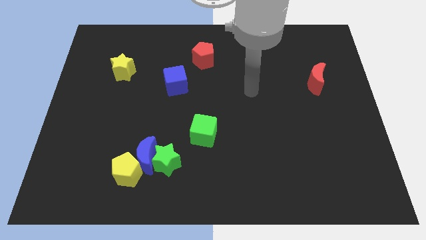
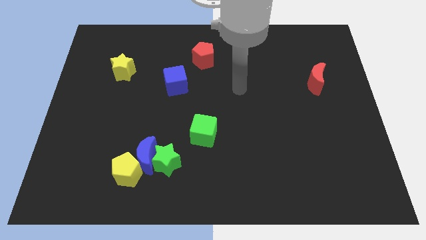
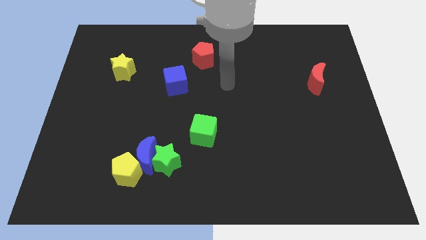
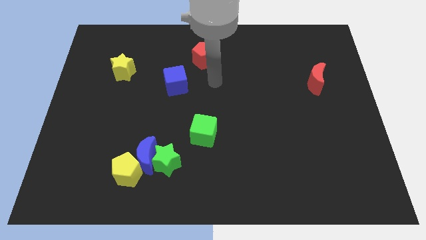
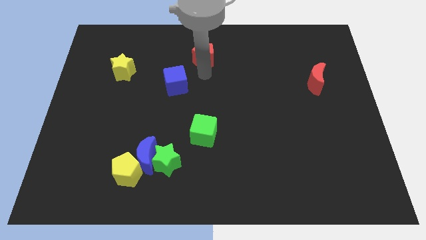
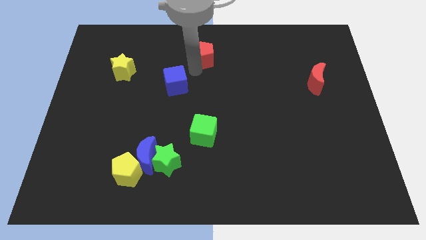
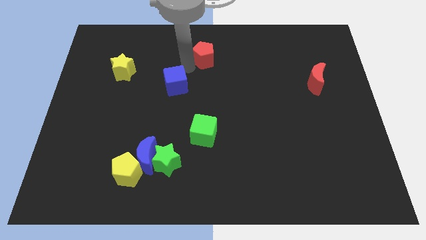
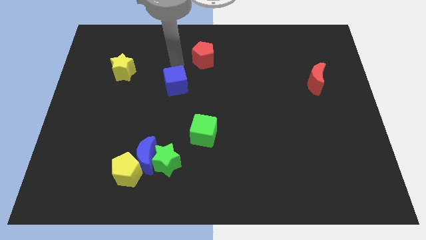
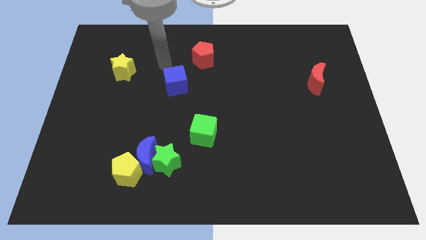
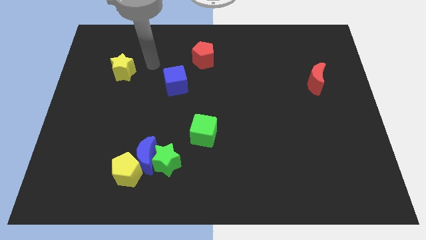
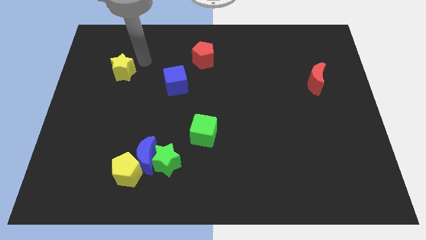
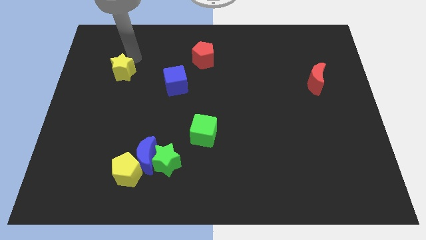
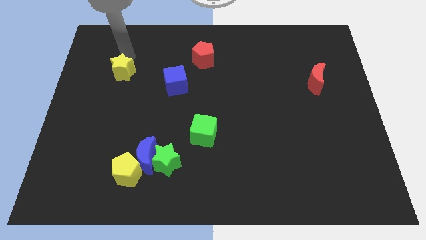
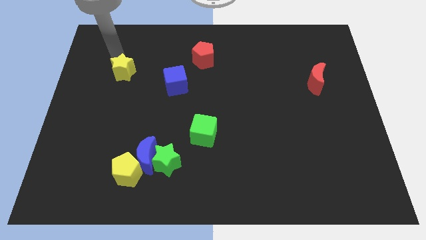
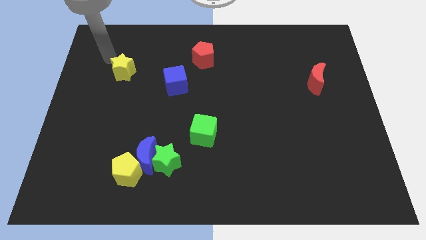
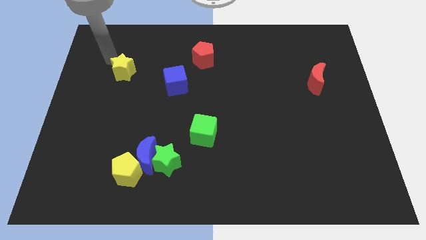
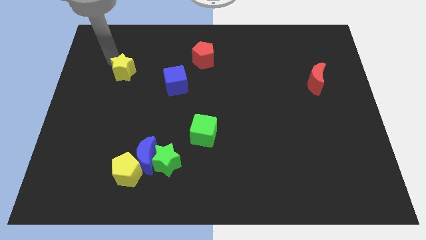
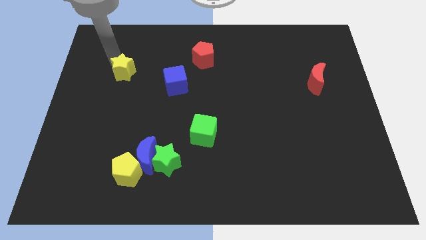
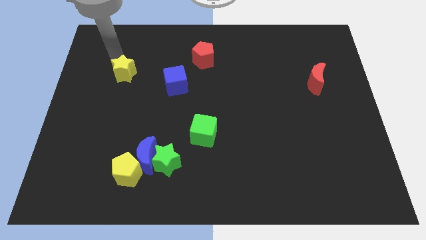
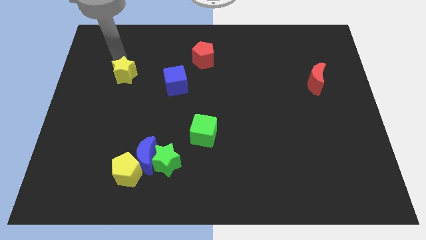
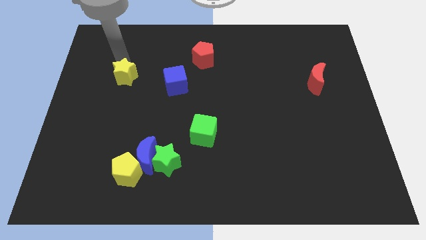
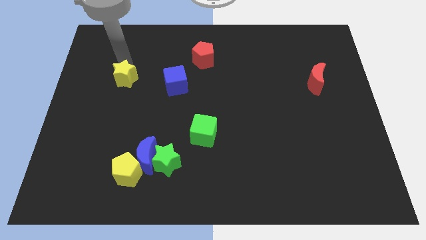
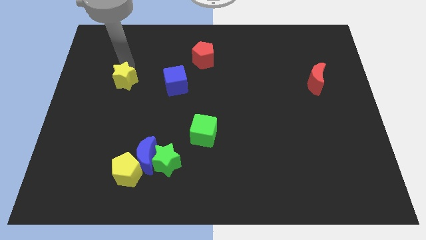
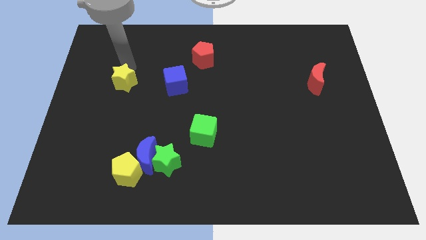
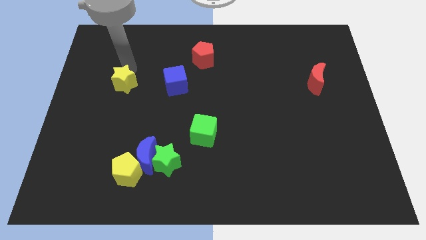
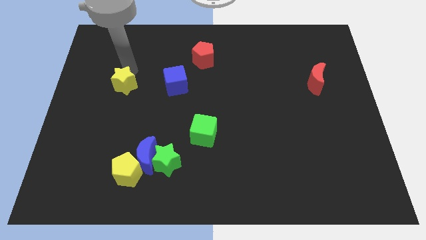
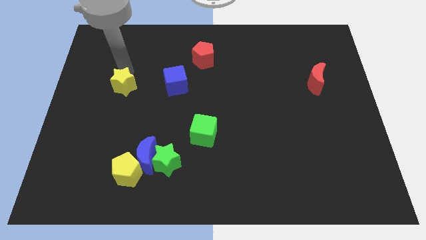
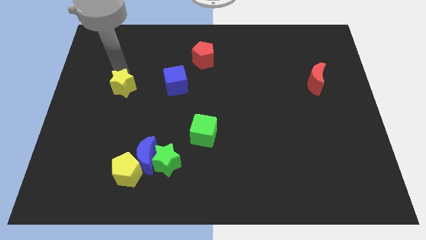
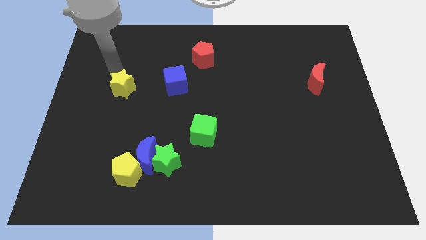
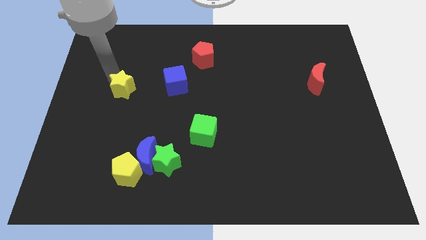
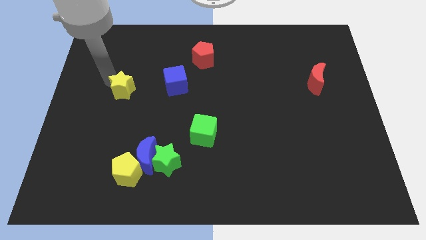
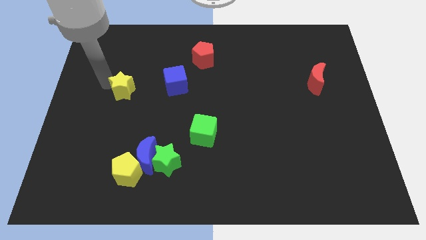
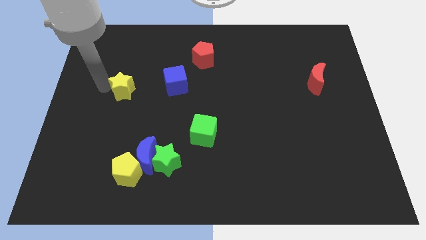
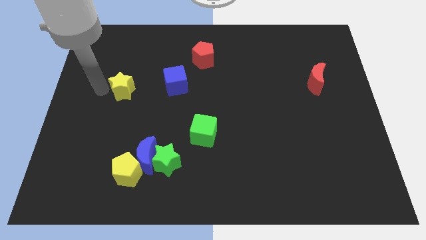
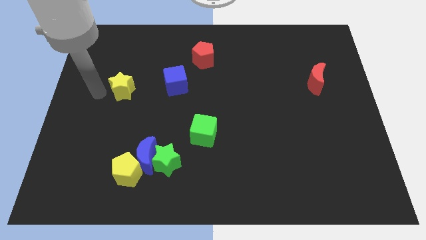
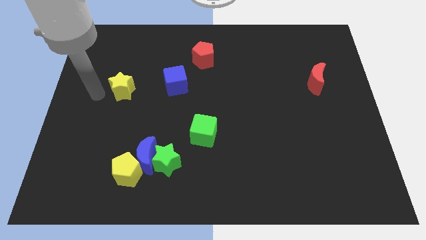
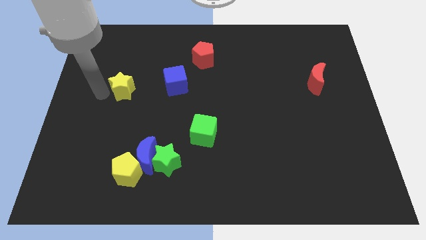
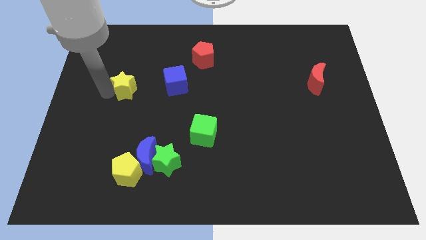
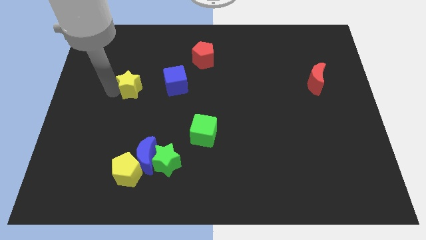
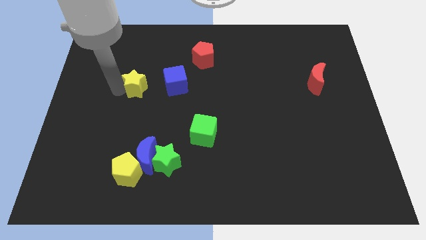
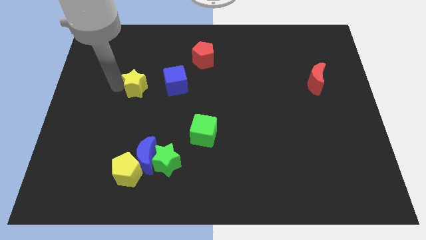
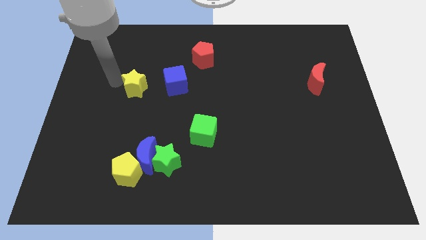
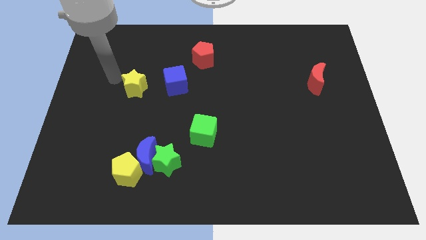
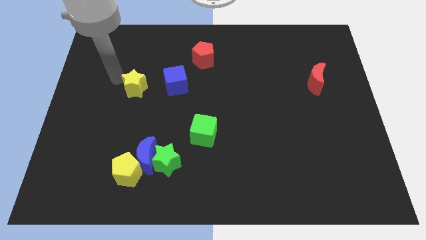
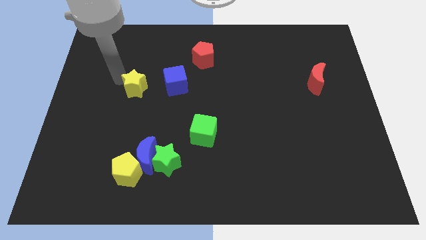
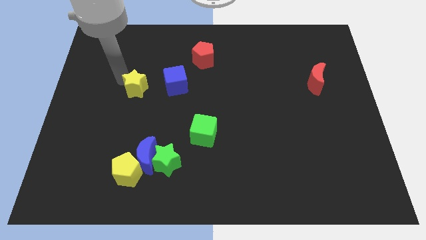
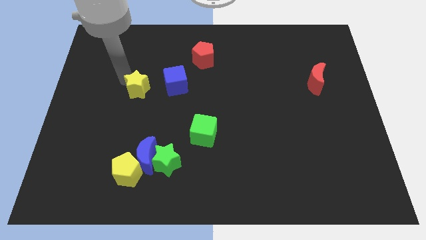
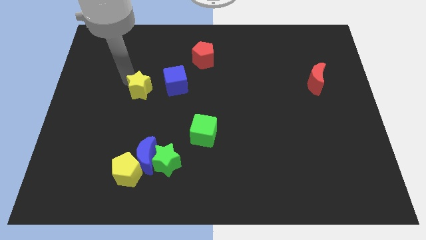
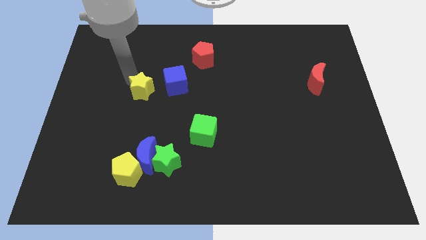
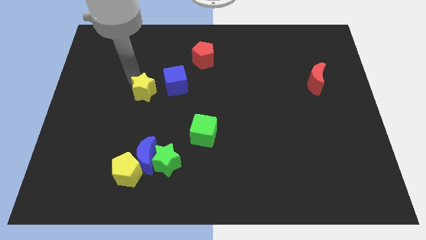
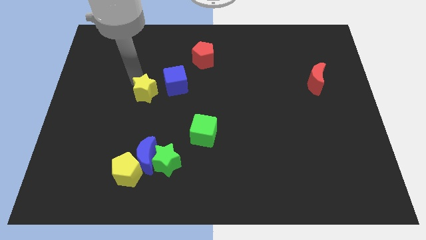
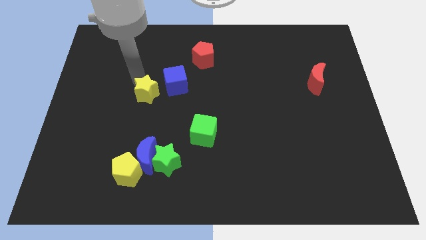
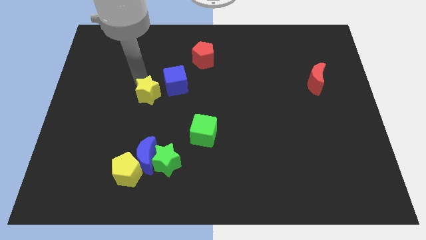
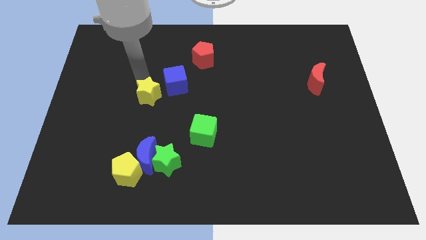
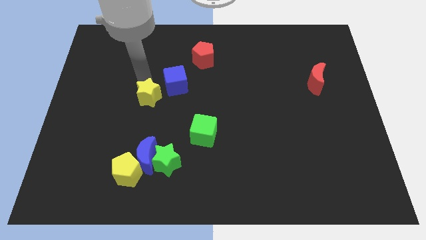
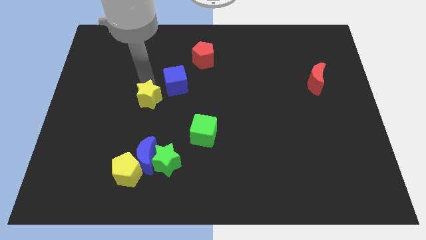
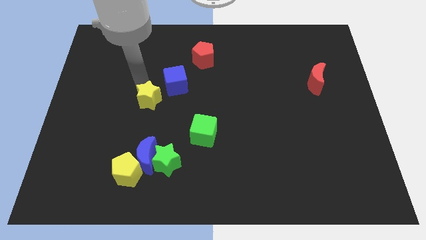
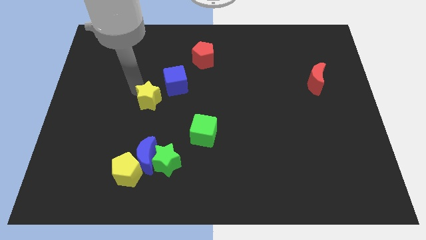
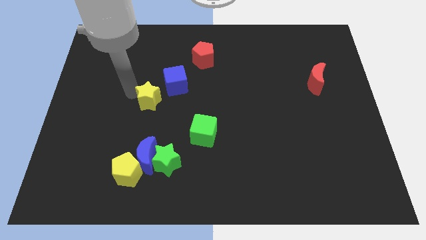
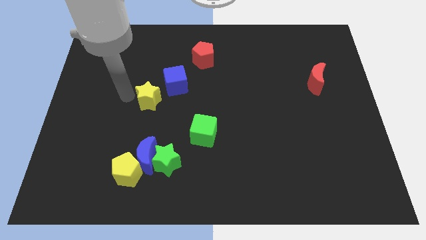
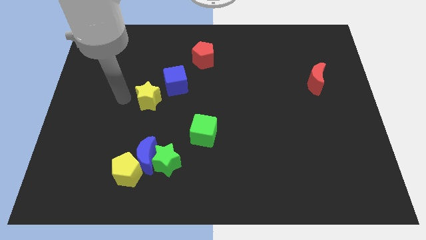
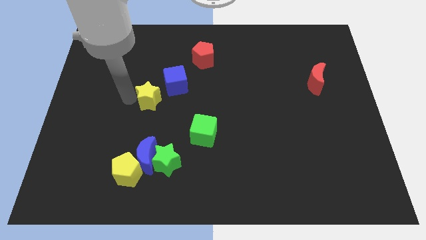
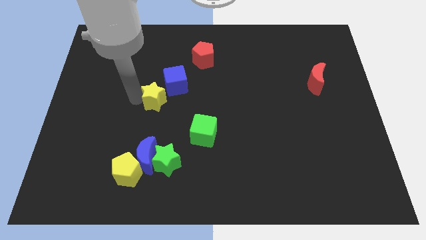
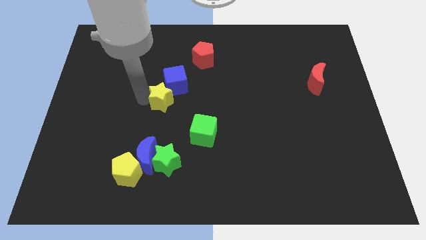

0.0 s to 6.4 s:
move the yellow star to the center of the board
